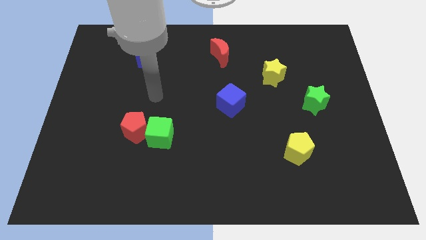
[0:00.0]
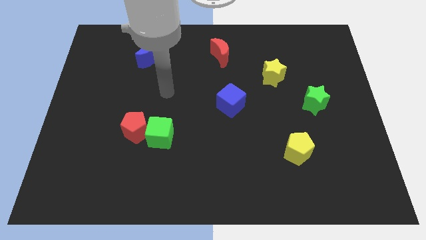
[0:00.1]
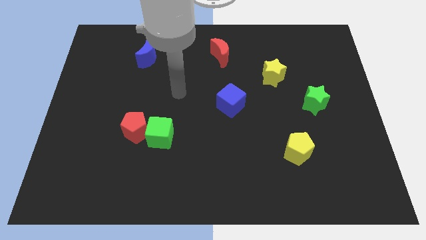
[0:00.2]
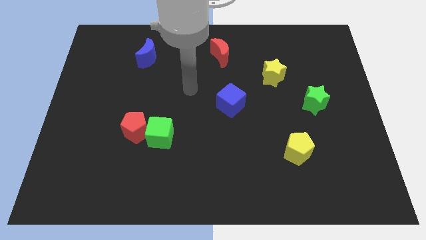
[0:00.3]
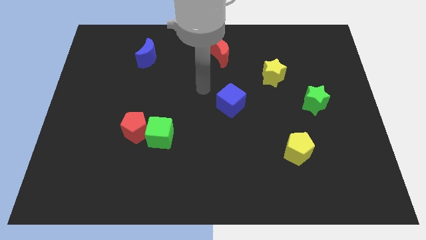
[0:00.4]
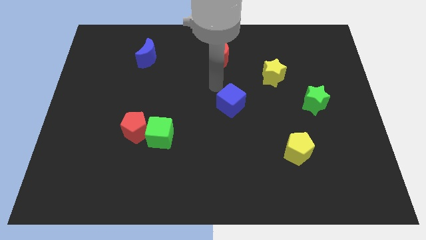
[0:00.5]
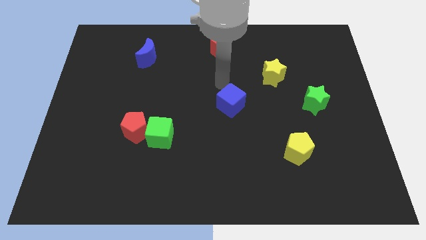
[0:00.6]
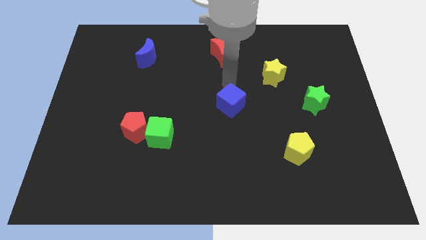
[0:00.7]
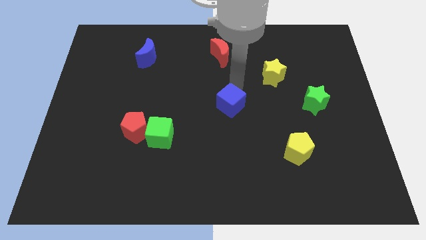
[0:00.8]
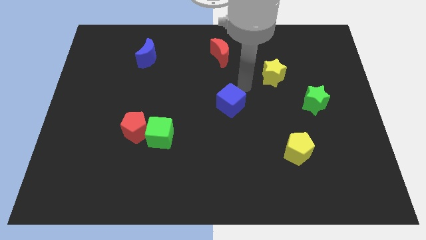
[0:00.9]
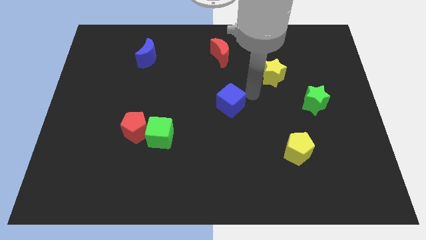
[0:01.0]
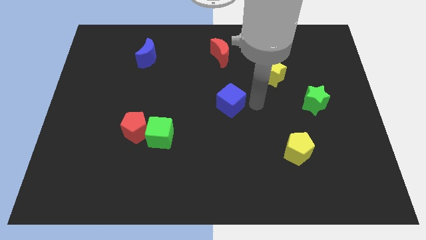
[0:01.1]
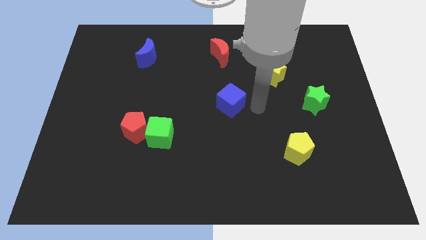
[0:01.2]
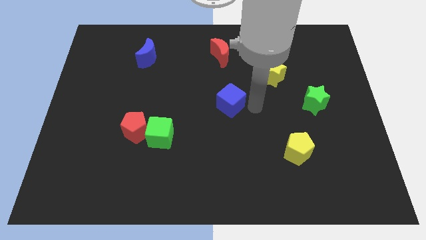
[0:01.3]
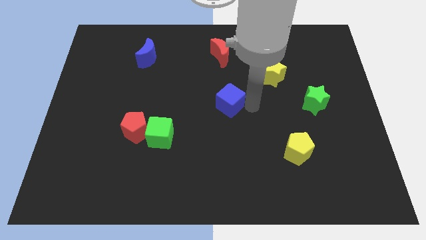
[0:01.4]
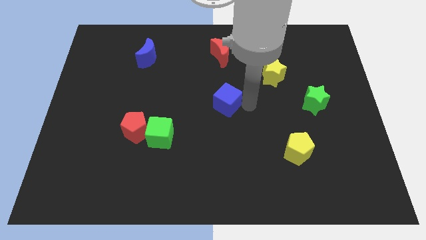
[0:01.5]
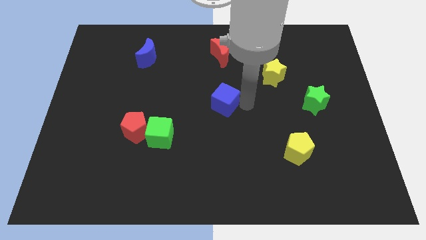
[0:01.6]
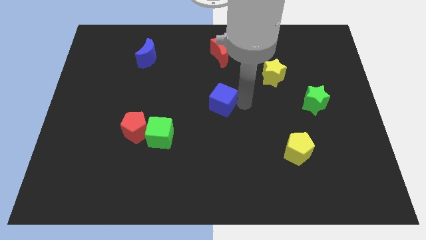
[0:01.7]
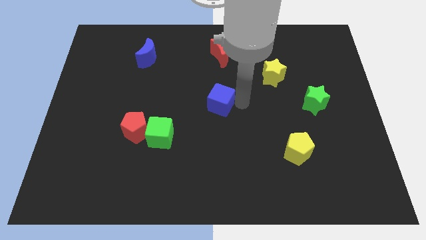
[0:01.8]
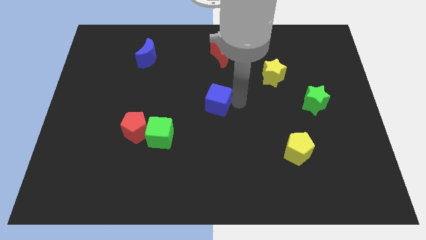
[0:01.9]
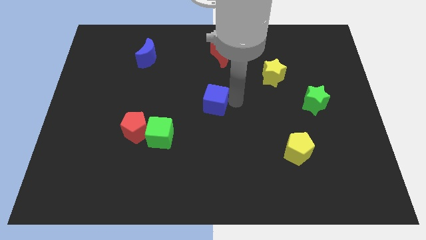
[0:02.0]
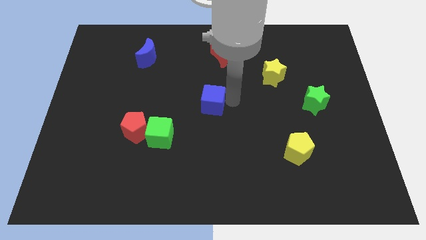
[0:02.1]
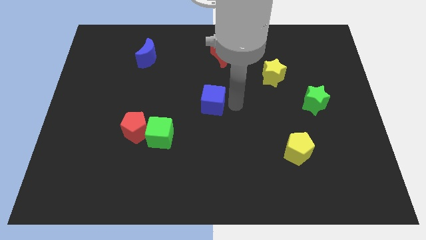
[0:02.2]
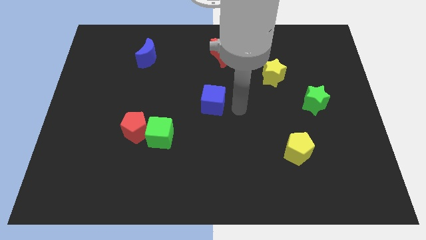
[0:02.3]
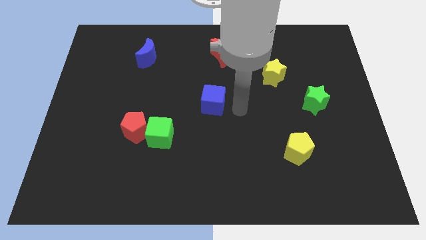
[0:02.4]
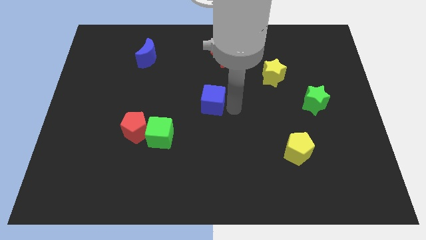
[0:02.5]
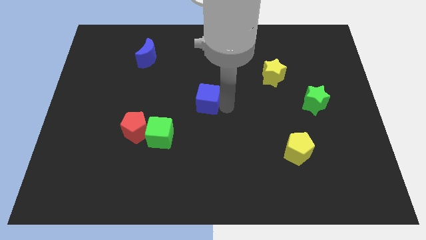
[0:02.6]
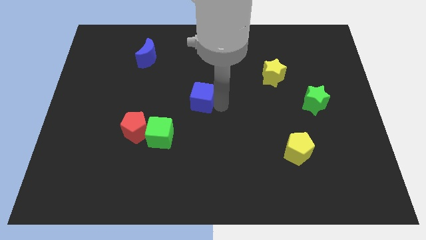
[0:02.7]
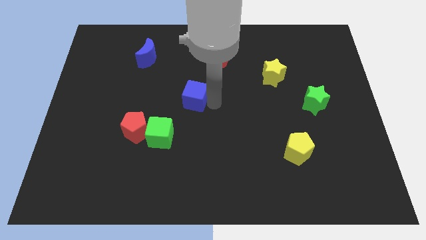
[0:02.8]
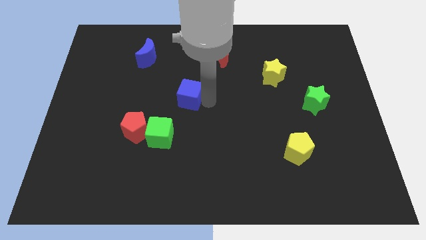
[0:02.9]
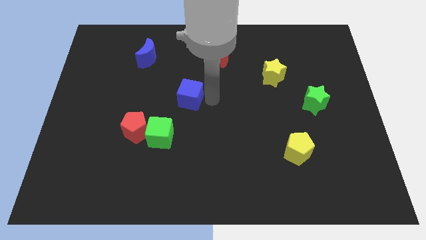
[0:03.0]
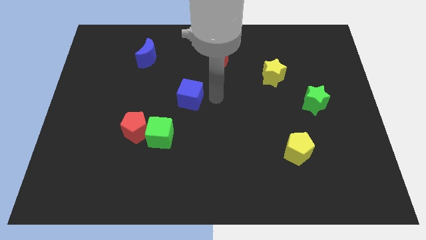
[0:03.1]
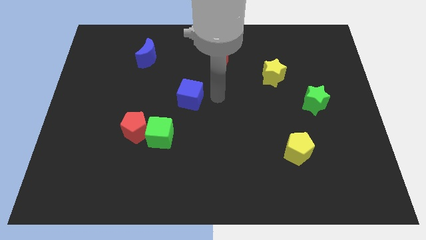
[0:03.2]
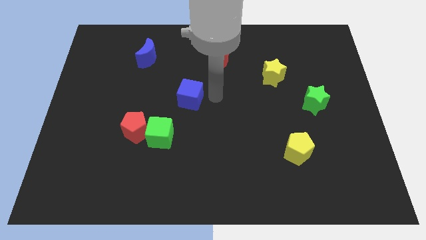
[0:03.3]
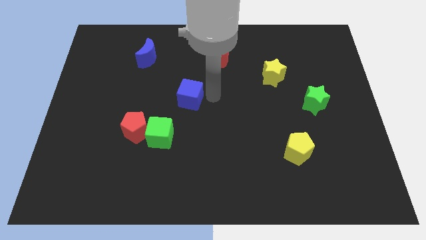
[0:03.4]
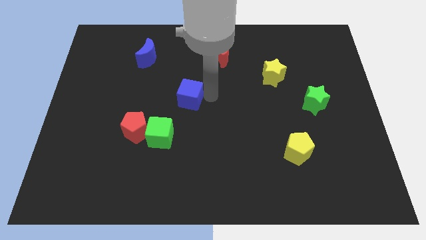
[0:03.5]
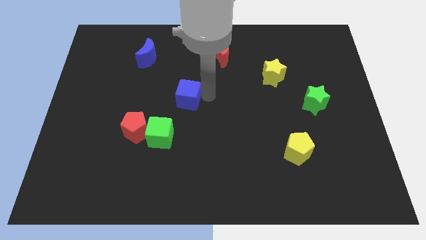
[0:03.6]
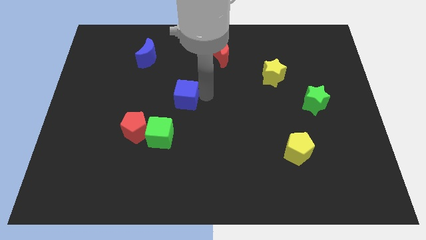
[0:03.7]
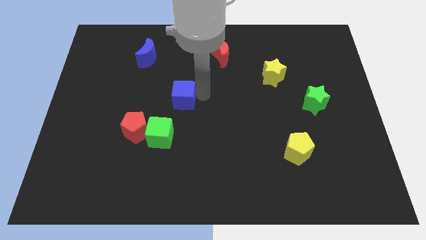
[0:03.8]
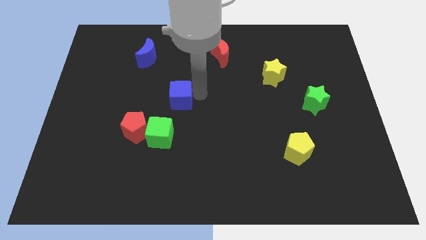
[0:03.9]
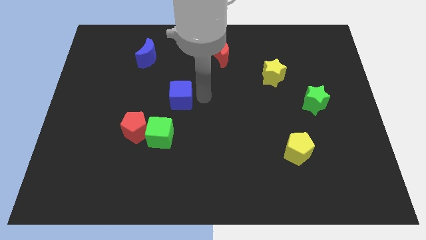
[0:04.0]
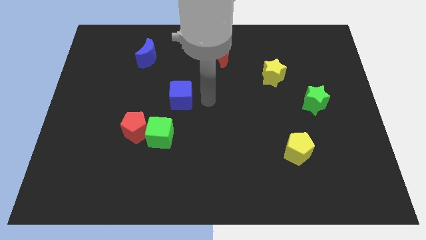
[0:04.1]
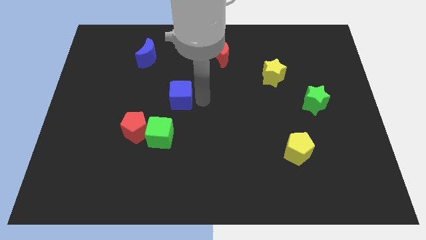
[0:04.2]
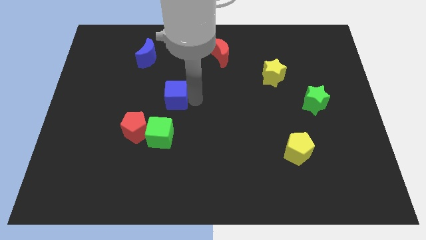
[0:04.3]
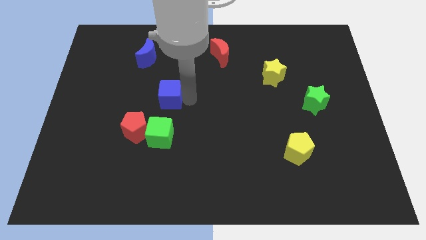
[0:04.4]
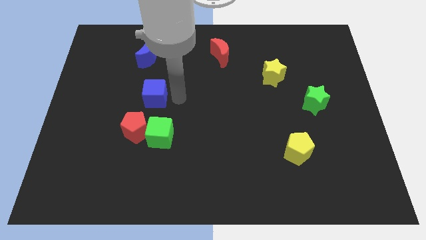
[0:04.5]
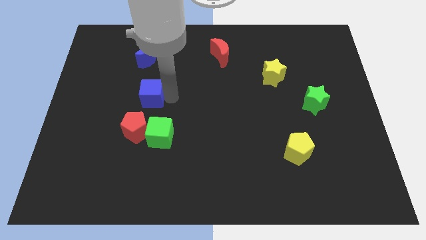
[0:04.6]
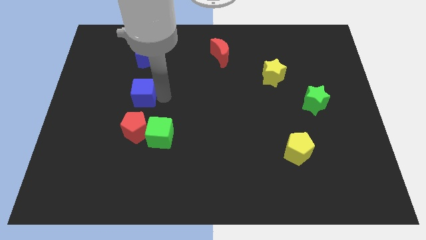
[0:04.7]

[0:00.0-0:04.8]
push the blue cube to the left

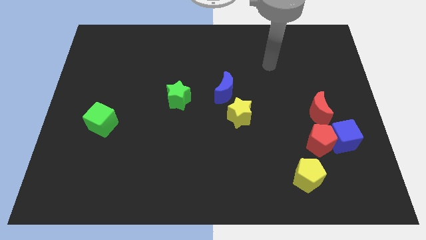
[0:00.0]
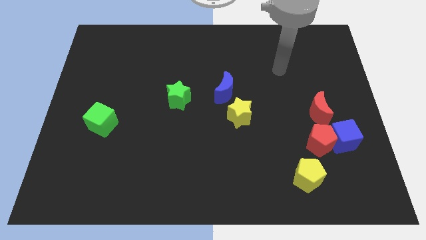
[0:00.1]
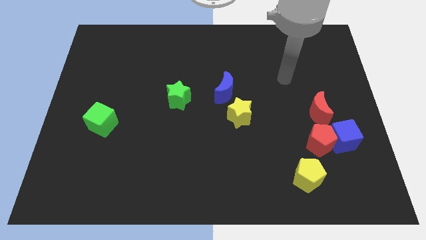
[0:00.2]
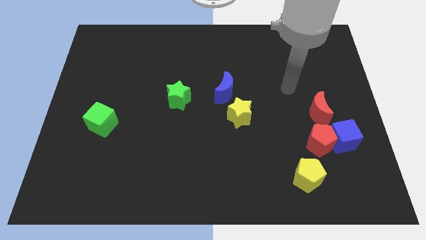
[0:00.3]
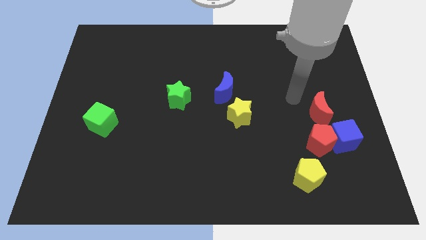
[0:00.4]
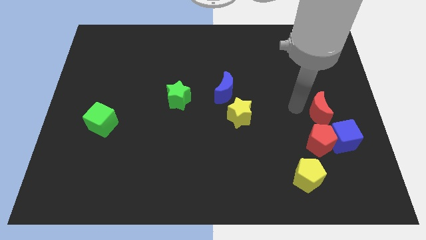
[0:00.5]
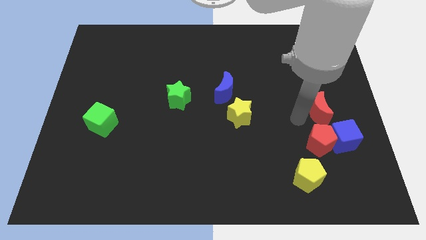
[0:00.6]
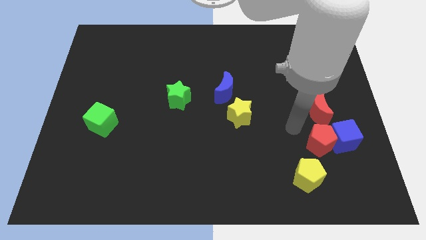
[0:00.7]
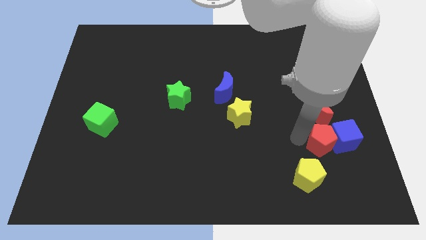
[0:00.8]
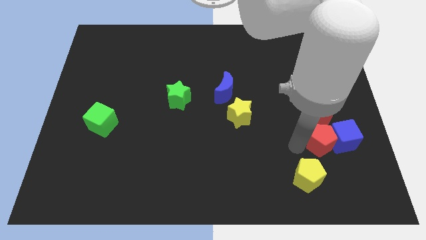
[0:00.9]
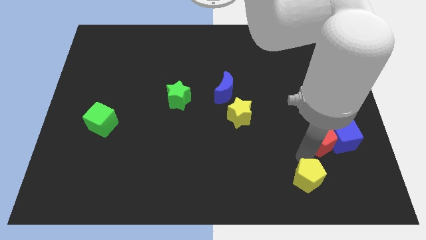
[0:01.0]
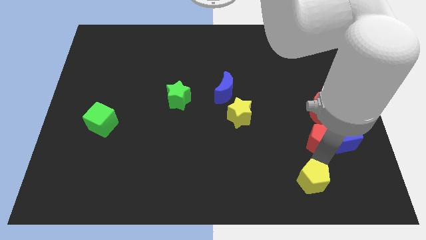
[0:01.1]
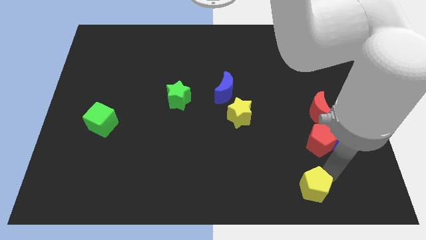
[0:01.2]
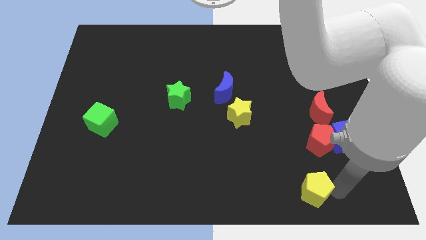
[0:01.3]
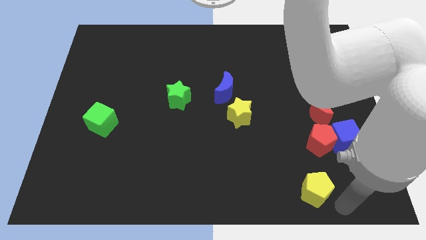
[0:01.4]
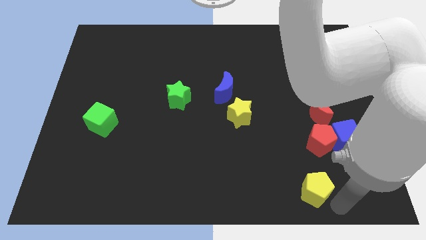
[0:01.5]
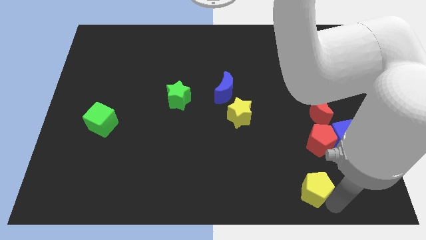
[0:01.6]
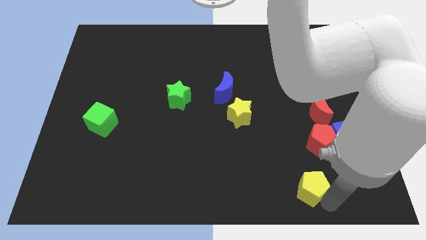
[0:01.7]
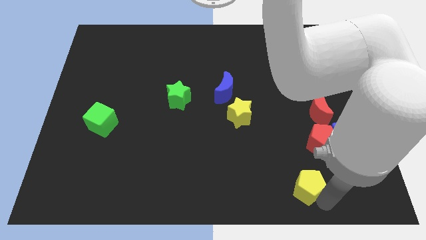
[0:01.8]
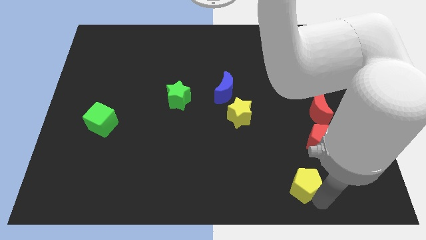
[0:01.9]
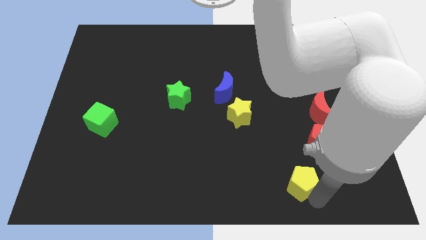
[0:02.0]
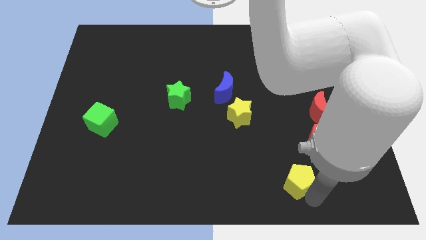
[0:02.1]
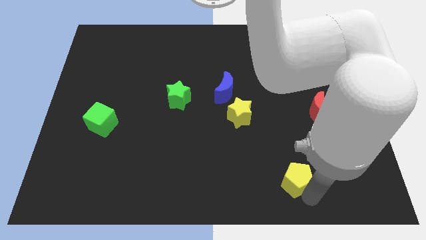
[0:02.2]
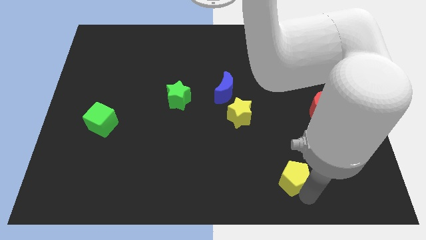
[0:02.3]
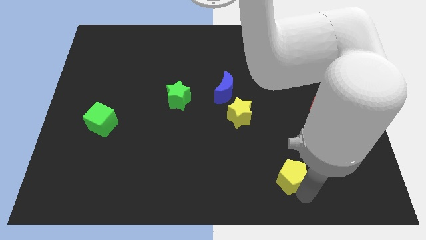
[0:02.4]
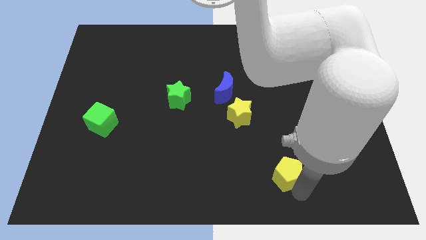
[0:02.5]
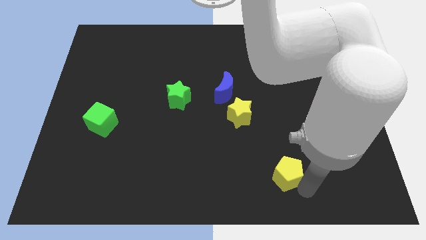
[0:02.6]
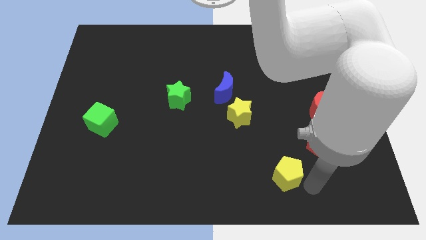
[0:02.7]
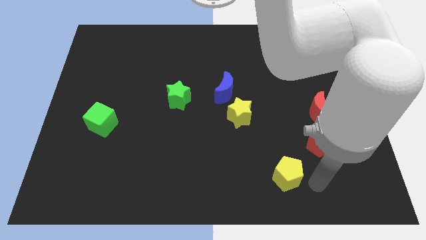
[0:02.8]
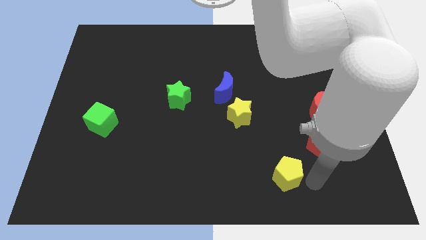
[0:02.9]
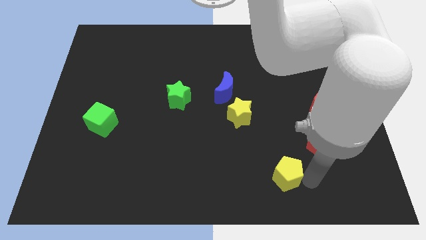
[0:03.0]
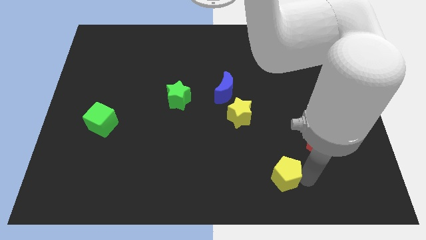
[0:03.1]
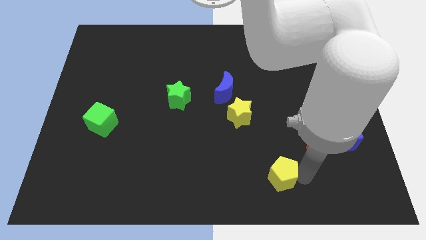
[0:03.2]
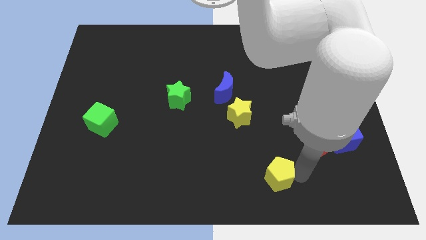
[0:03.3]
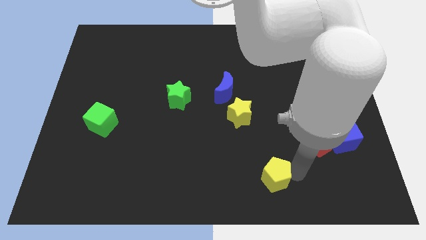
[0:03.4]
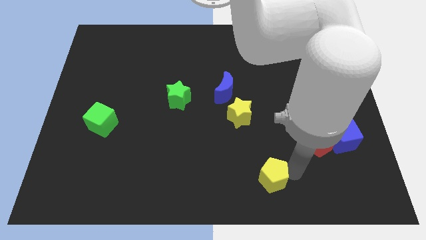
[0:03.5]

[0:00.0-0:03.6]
slightly push the yellow pentagon to the left
